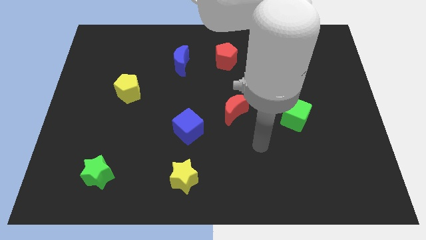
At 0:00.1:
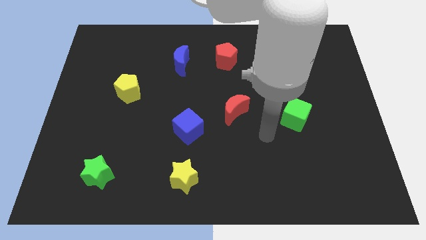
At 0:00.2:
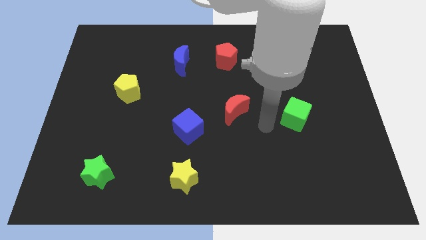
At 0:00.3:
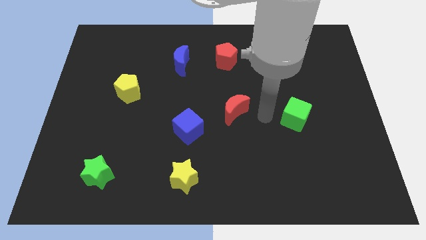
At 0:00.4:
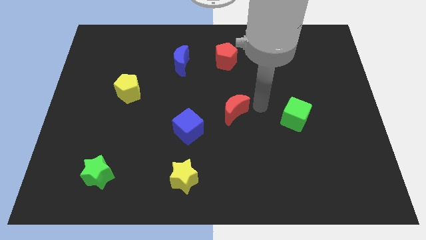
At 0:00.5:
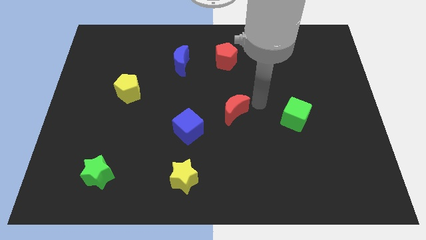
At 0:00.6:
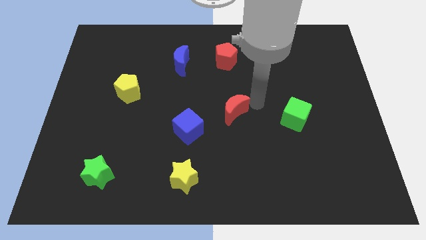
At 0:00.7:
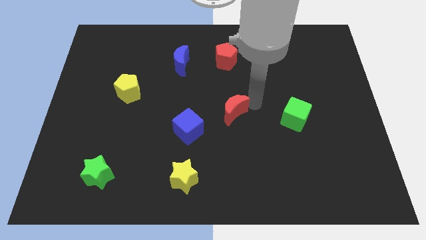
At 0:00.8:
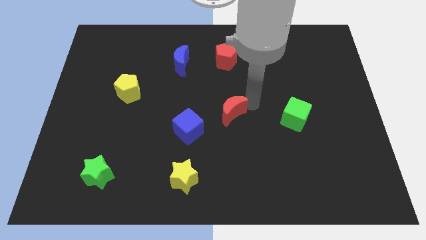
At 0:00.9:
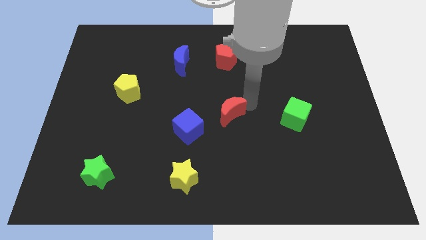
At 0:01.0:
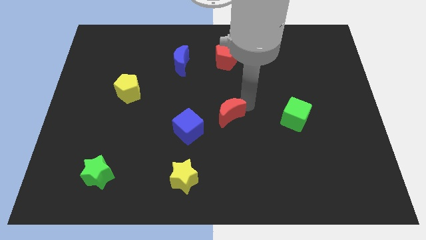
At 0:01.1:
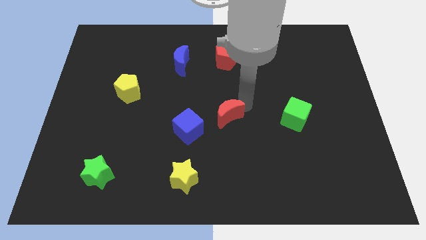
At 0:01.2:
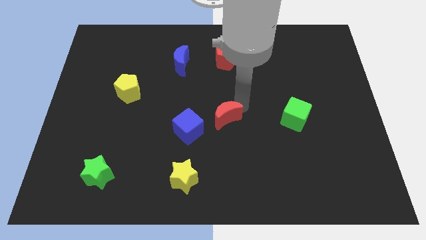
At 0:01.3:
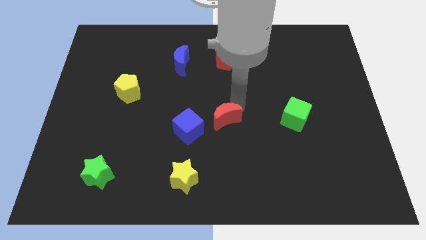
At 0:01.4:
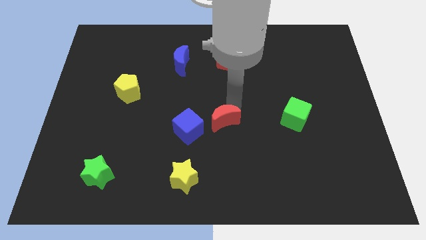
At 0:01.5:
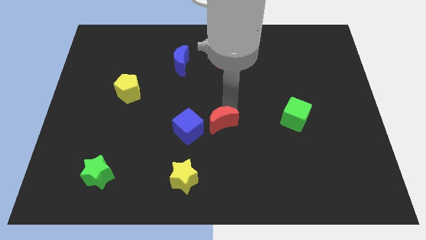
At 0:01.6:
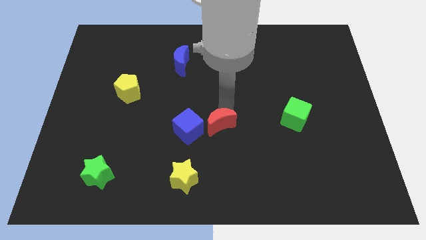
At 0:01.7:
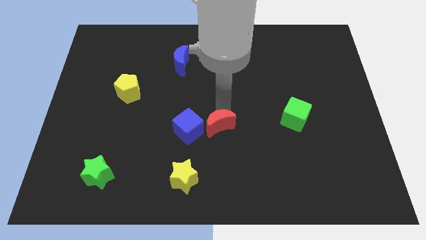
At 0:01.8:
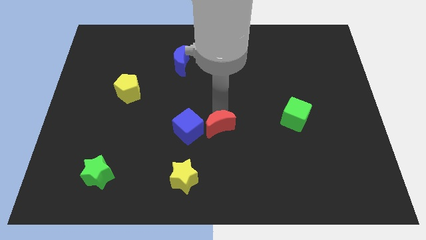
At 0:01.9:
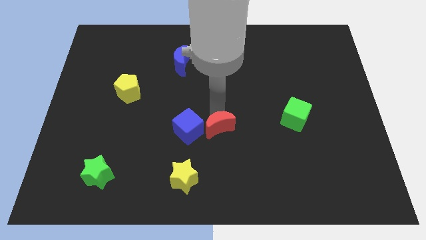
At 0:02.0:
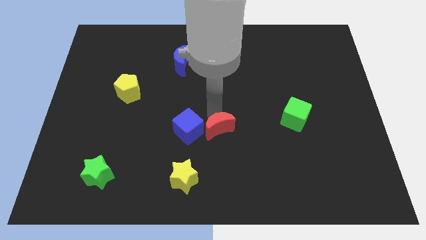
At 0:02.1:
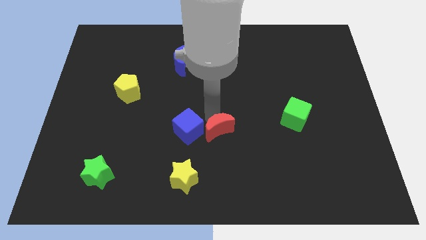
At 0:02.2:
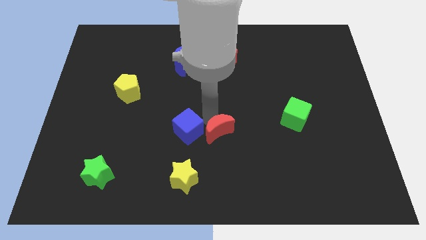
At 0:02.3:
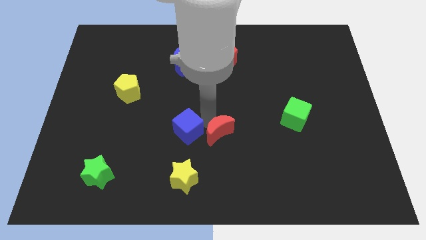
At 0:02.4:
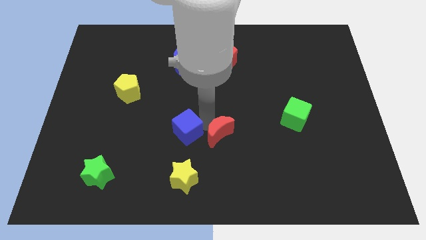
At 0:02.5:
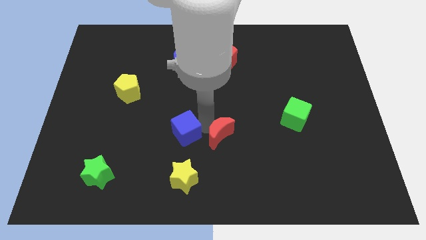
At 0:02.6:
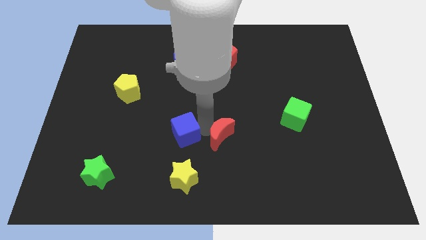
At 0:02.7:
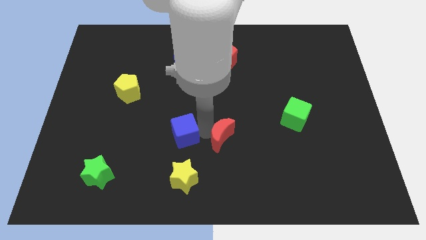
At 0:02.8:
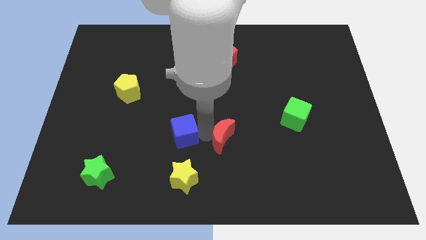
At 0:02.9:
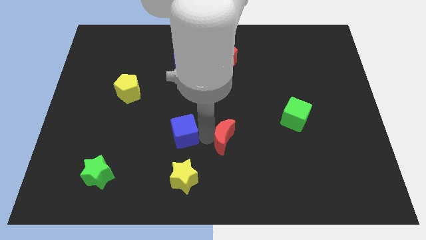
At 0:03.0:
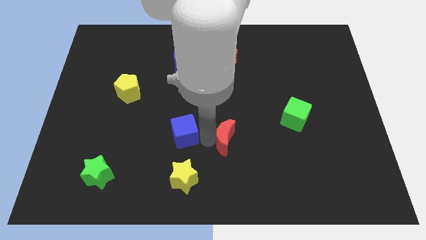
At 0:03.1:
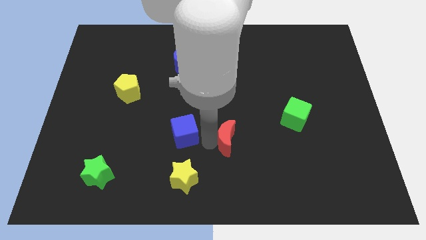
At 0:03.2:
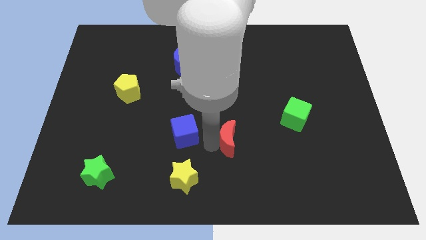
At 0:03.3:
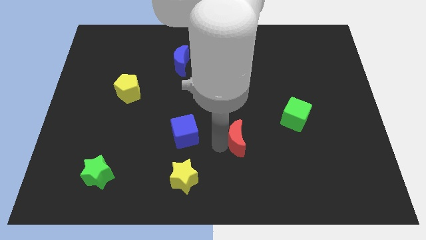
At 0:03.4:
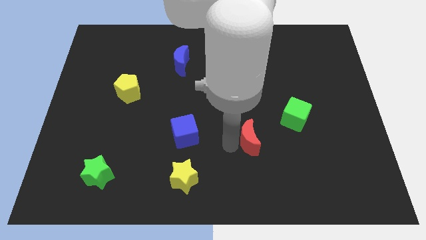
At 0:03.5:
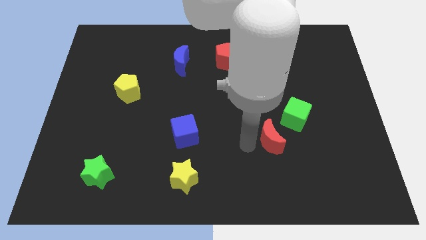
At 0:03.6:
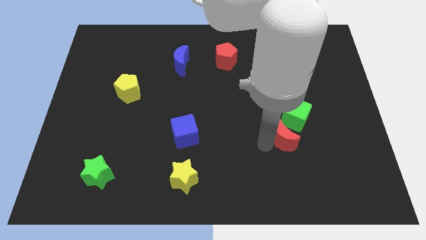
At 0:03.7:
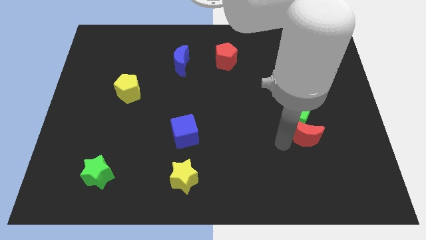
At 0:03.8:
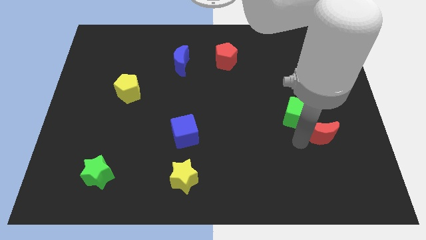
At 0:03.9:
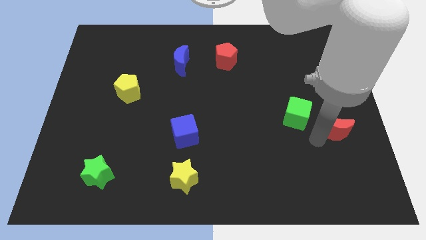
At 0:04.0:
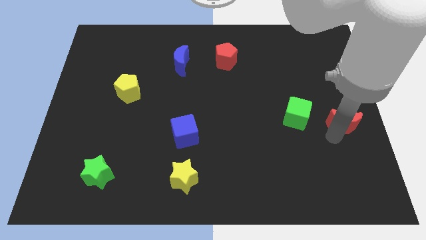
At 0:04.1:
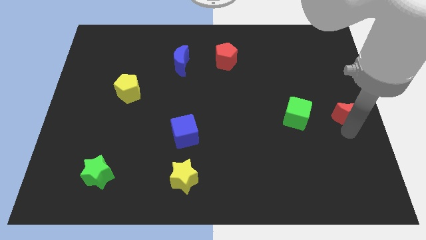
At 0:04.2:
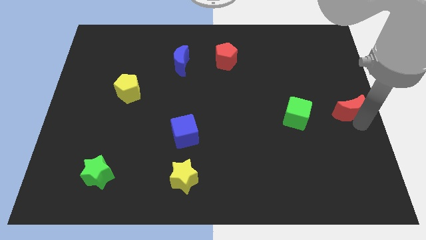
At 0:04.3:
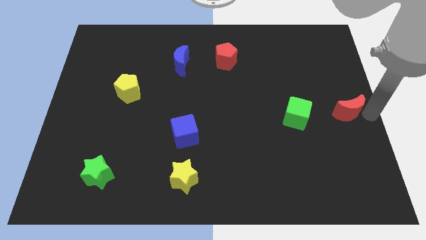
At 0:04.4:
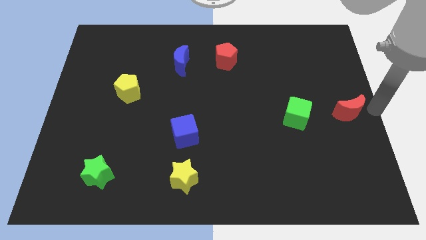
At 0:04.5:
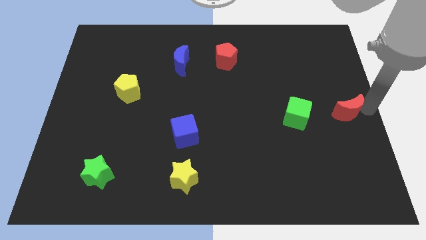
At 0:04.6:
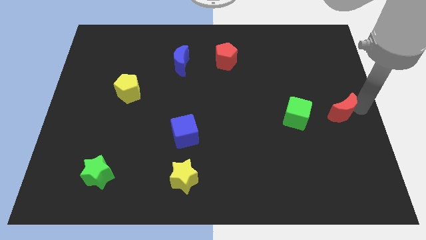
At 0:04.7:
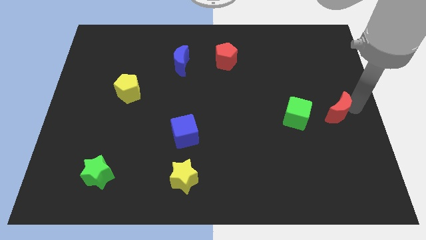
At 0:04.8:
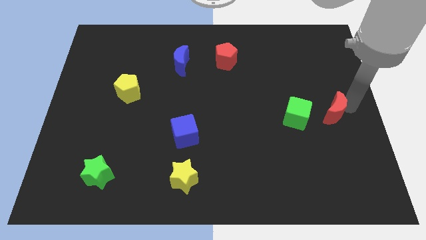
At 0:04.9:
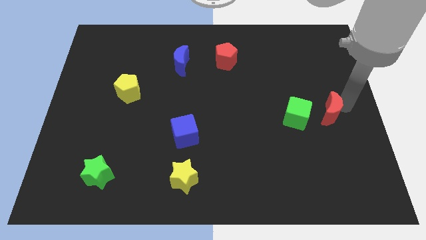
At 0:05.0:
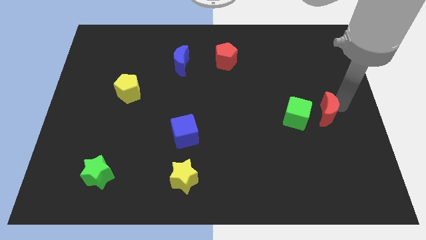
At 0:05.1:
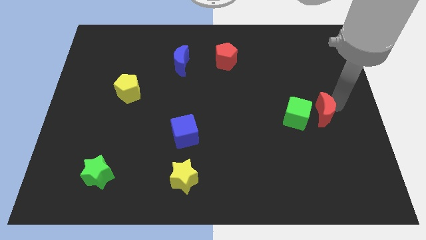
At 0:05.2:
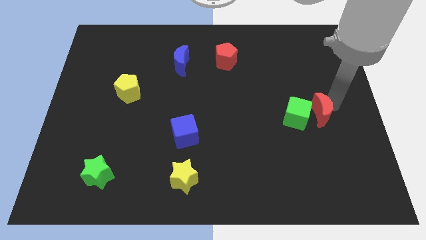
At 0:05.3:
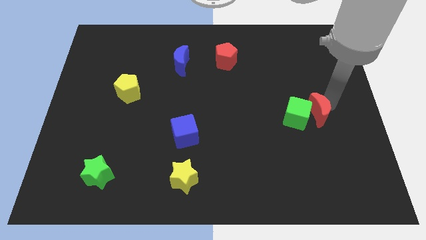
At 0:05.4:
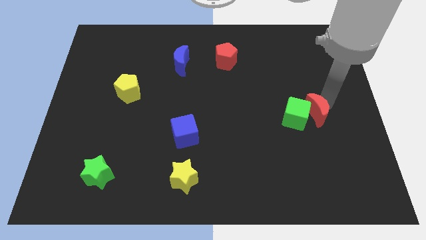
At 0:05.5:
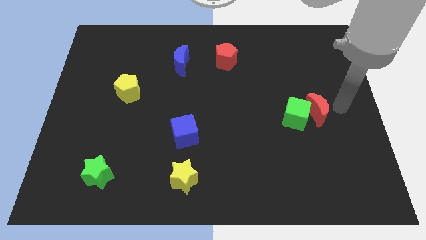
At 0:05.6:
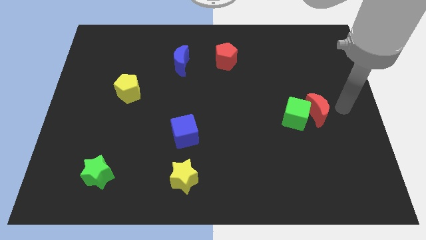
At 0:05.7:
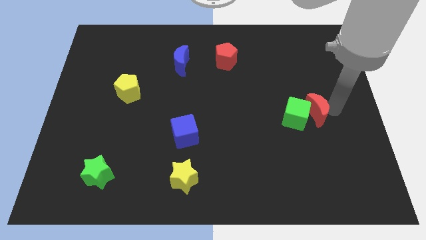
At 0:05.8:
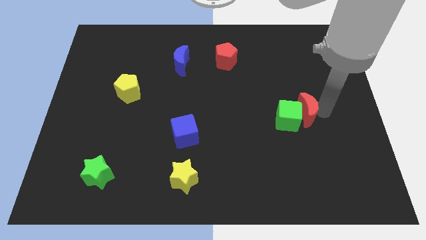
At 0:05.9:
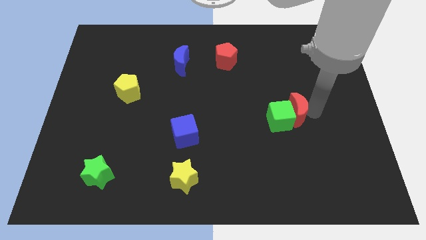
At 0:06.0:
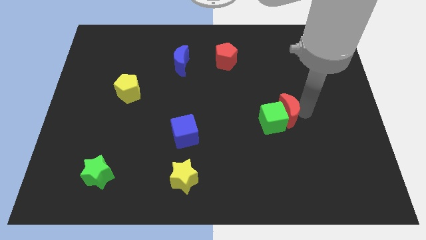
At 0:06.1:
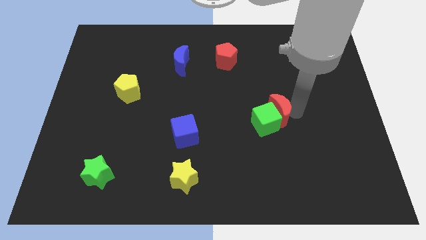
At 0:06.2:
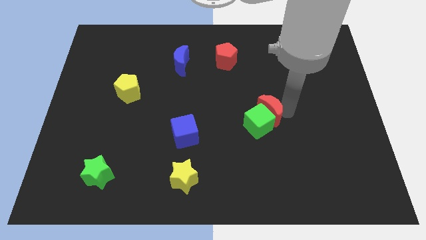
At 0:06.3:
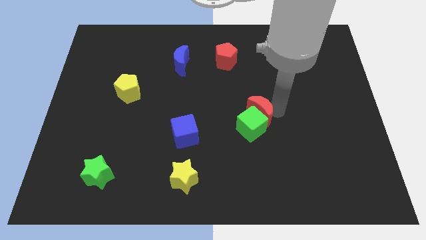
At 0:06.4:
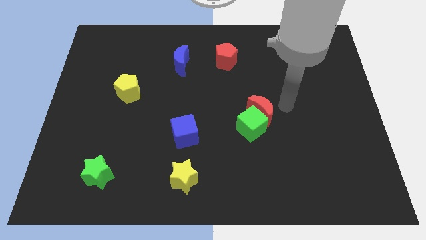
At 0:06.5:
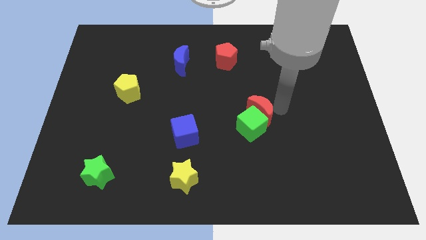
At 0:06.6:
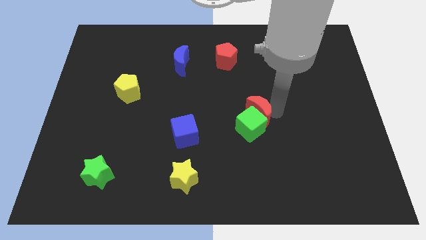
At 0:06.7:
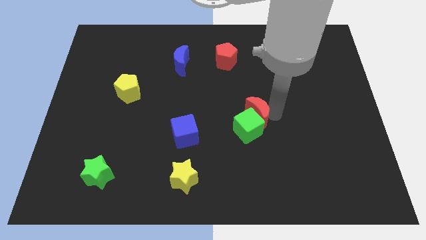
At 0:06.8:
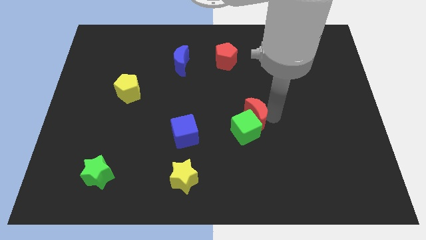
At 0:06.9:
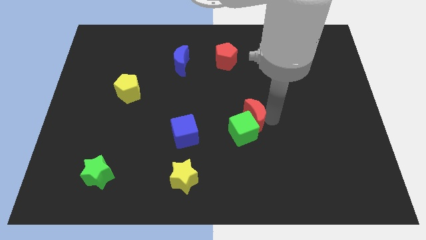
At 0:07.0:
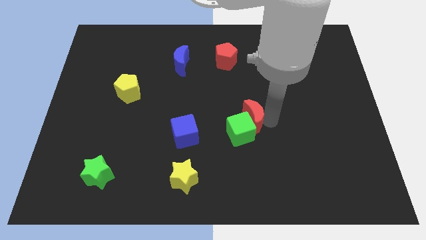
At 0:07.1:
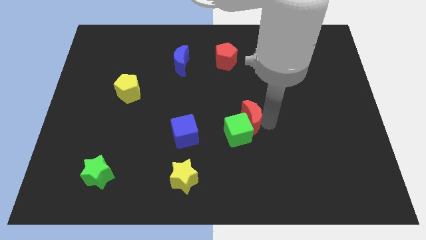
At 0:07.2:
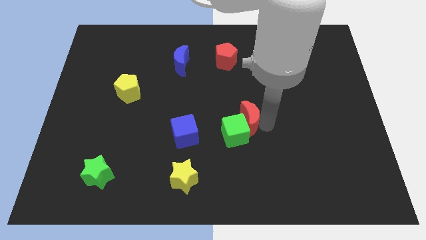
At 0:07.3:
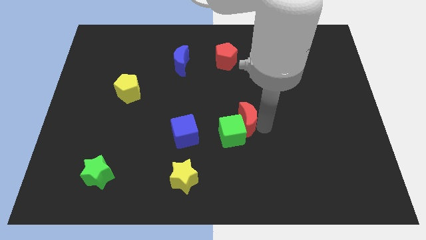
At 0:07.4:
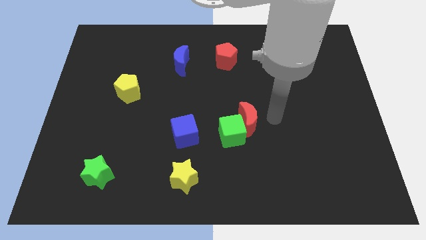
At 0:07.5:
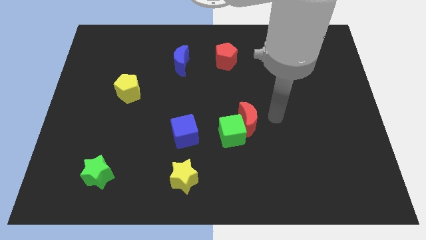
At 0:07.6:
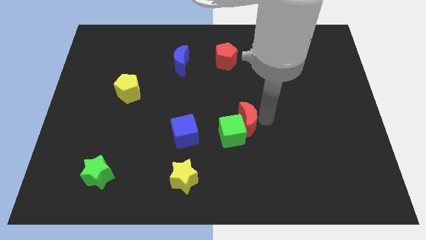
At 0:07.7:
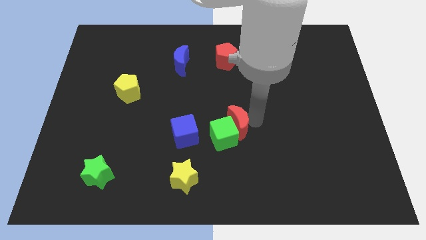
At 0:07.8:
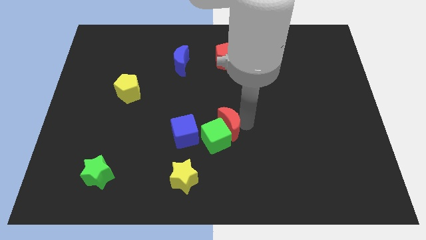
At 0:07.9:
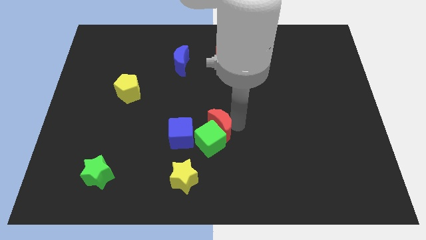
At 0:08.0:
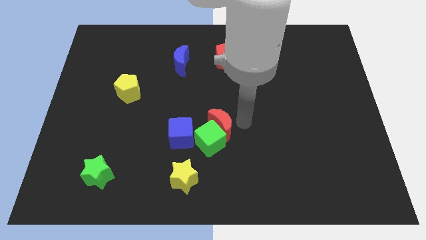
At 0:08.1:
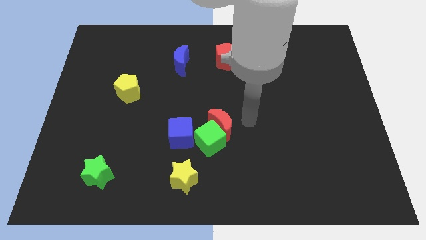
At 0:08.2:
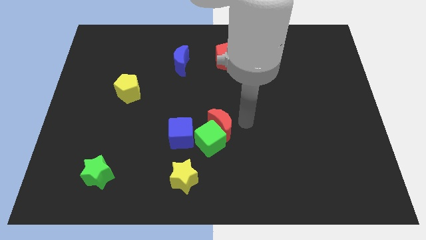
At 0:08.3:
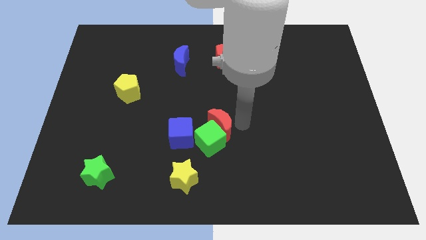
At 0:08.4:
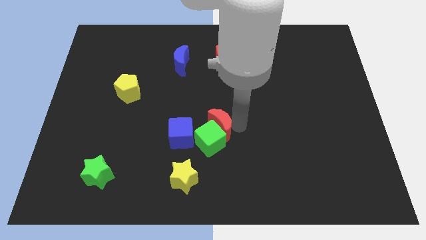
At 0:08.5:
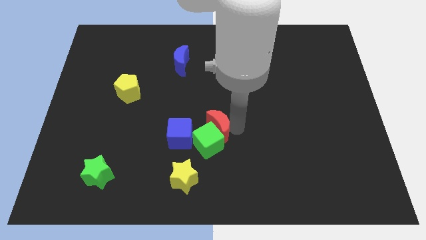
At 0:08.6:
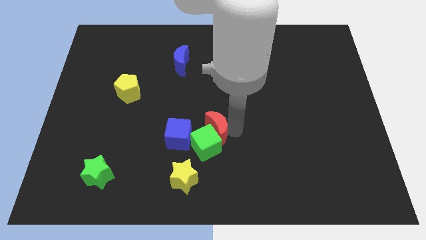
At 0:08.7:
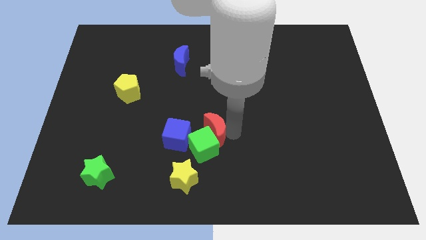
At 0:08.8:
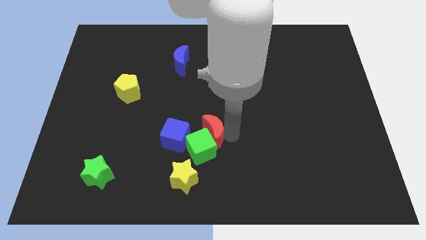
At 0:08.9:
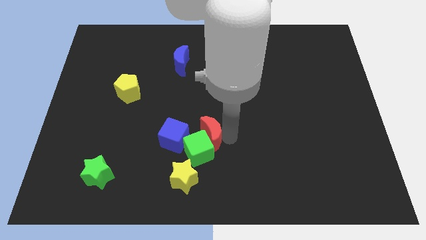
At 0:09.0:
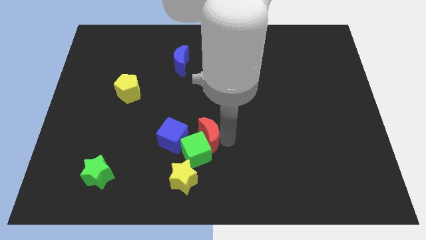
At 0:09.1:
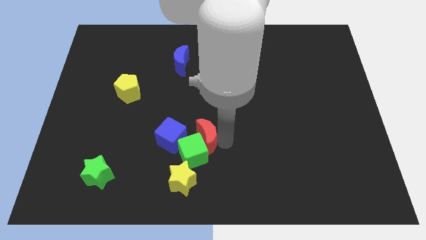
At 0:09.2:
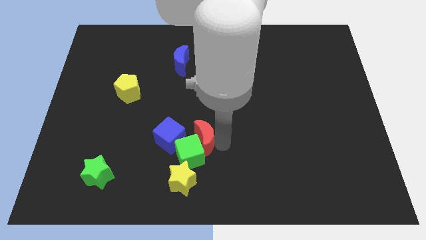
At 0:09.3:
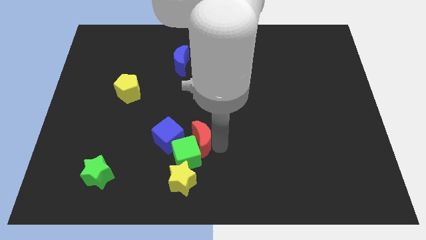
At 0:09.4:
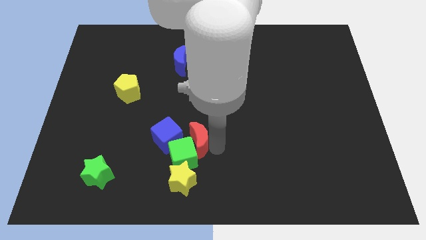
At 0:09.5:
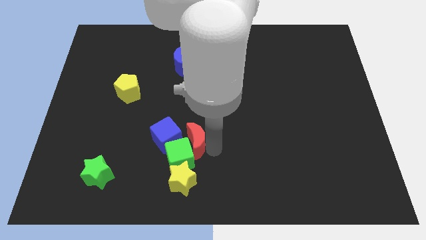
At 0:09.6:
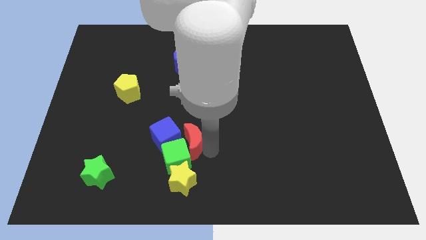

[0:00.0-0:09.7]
put the red moon close to the blue cube
